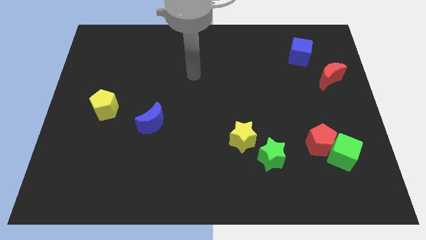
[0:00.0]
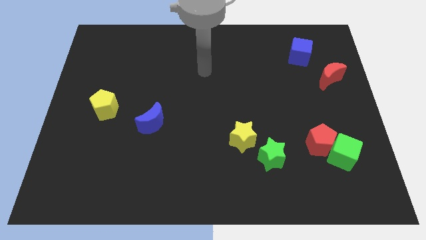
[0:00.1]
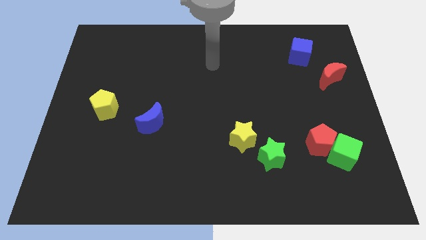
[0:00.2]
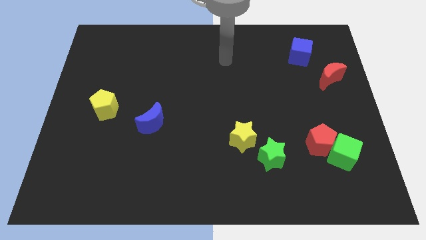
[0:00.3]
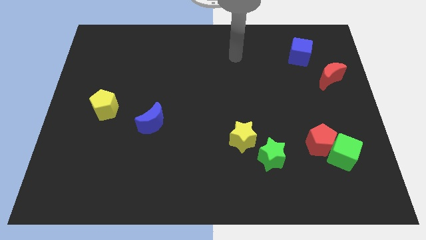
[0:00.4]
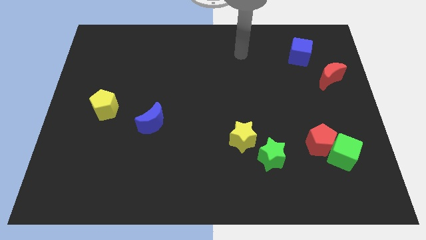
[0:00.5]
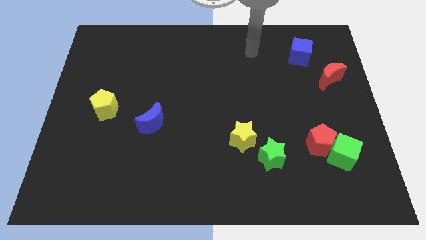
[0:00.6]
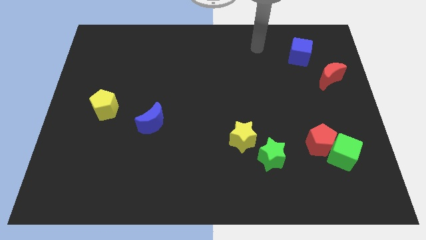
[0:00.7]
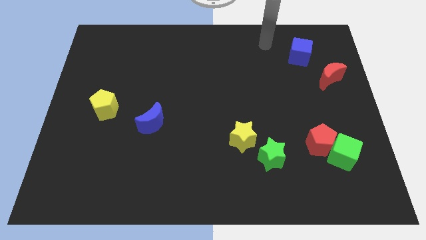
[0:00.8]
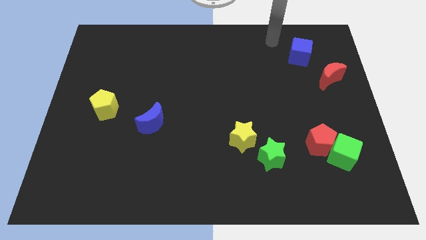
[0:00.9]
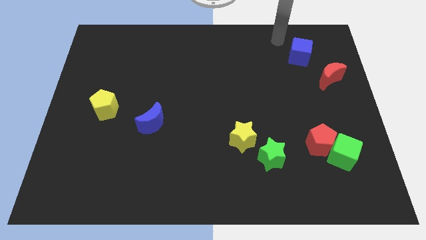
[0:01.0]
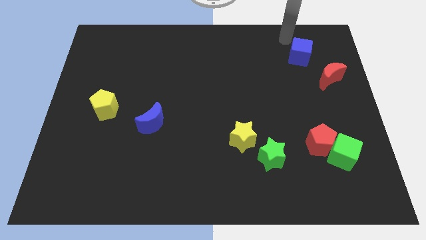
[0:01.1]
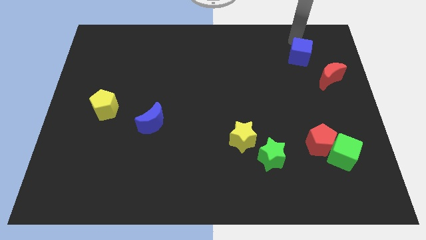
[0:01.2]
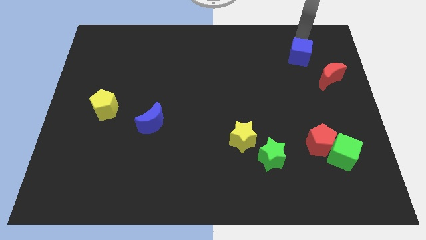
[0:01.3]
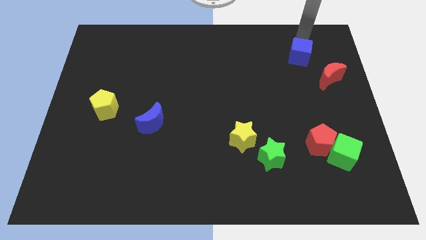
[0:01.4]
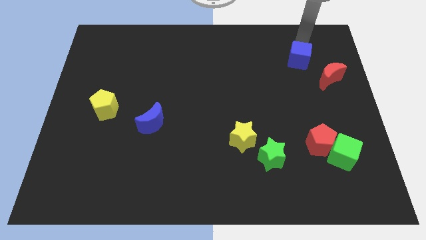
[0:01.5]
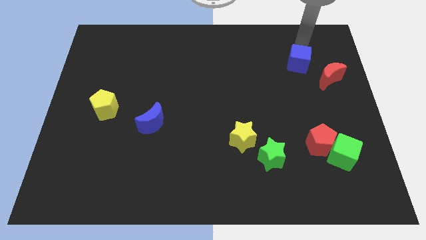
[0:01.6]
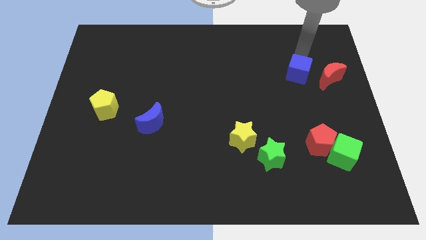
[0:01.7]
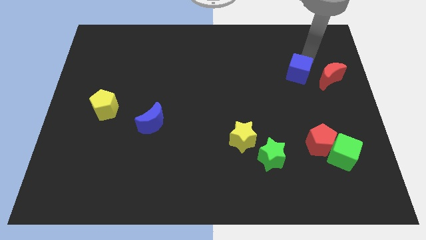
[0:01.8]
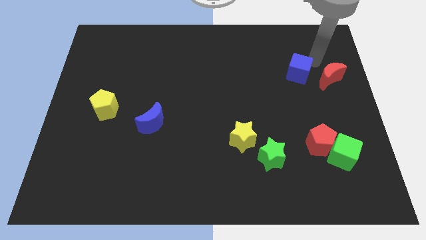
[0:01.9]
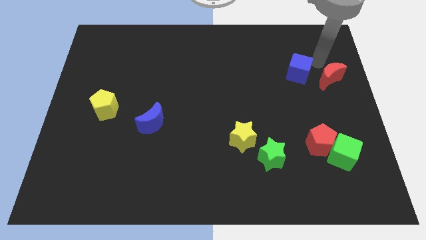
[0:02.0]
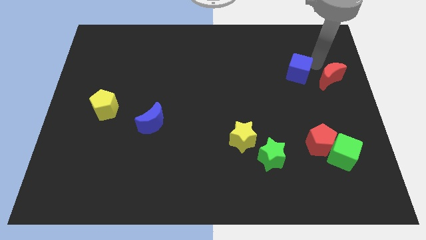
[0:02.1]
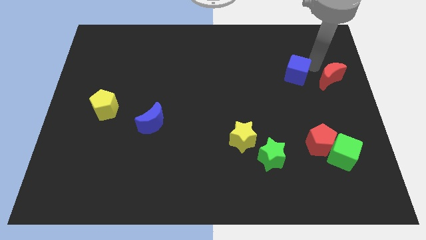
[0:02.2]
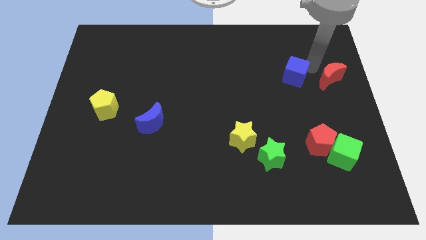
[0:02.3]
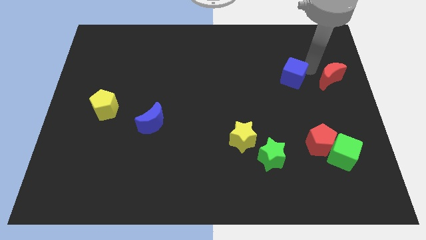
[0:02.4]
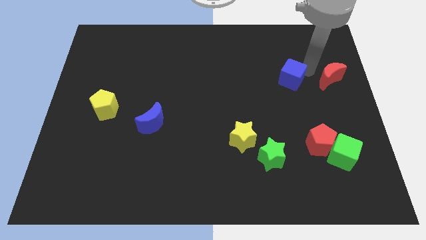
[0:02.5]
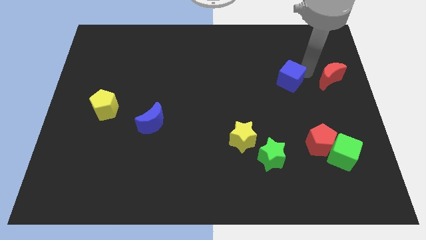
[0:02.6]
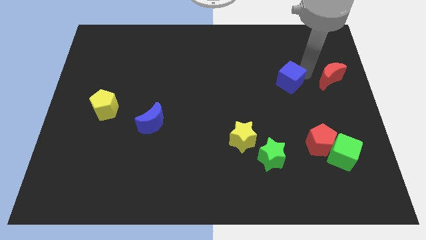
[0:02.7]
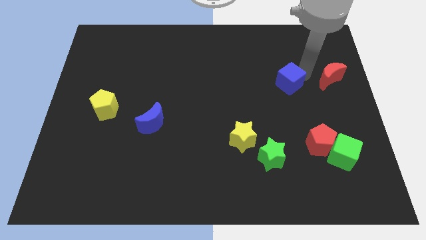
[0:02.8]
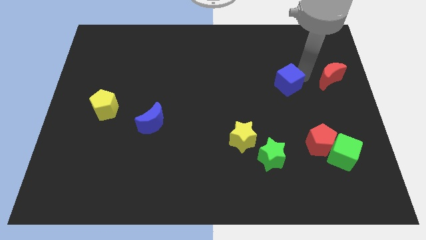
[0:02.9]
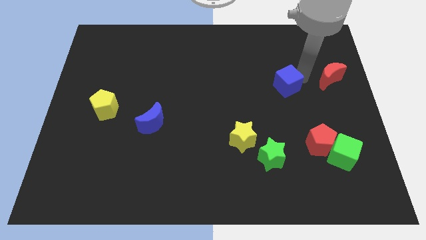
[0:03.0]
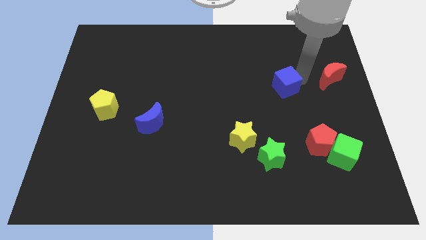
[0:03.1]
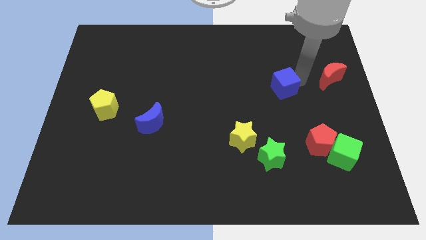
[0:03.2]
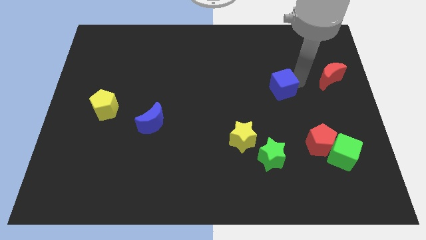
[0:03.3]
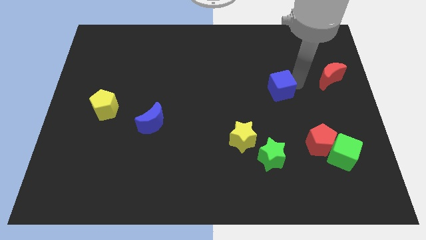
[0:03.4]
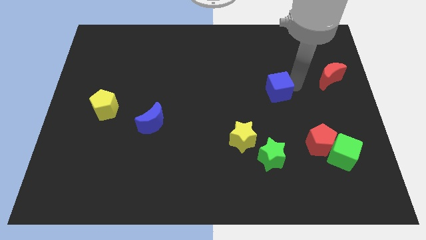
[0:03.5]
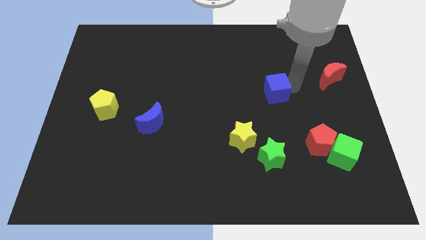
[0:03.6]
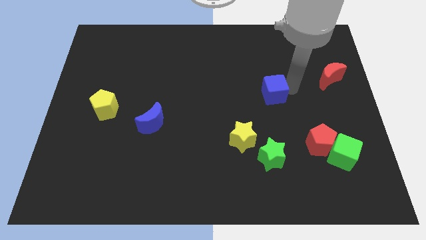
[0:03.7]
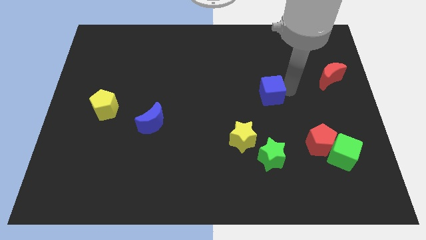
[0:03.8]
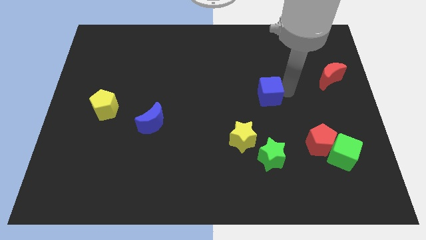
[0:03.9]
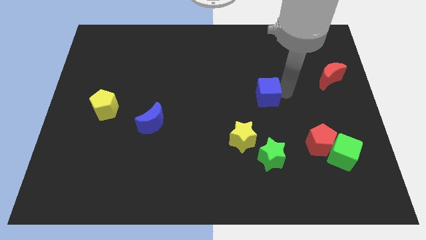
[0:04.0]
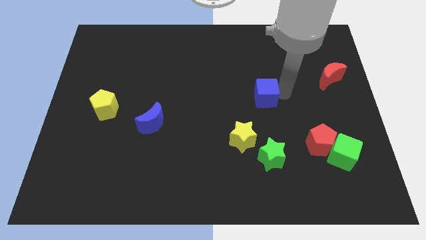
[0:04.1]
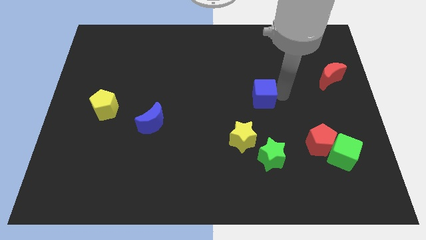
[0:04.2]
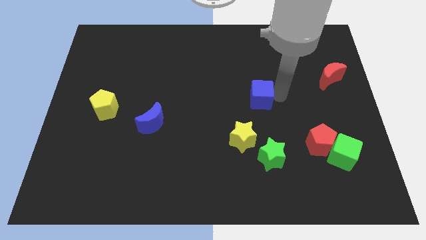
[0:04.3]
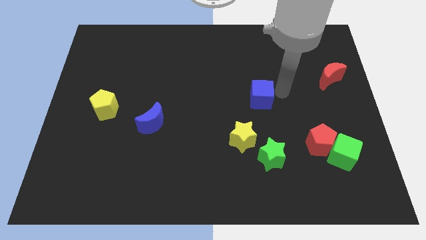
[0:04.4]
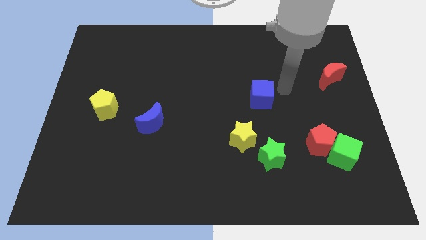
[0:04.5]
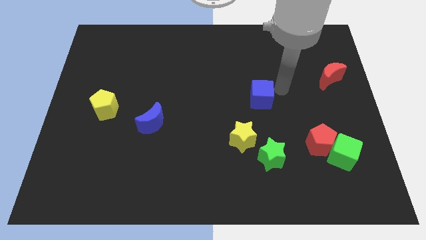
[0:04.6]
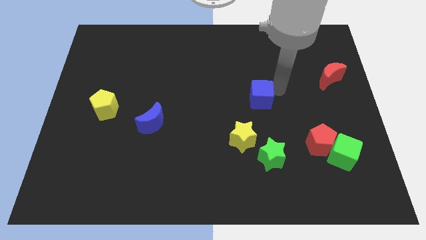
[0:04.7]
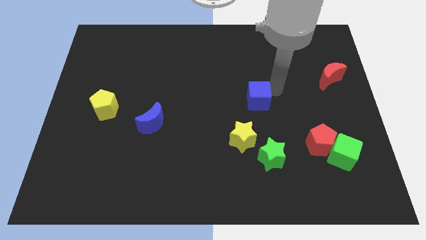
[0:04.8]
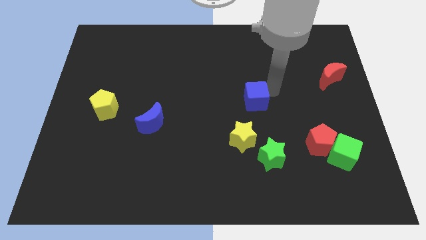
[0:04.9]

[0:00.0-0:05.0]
push the blue cube downwards and to the left

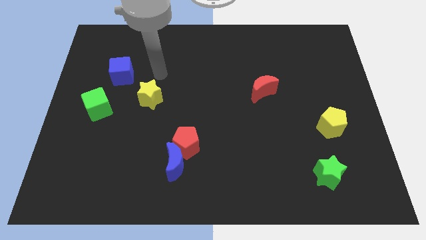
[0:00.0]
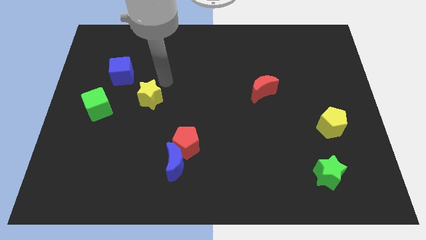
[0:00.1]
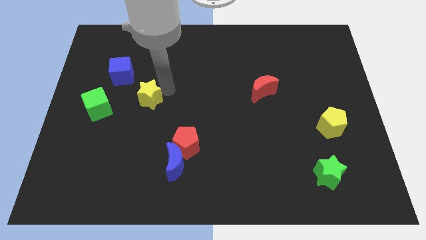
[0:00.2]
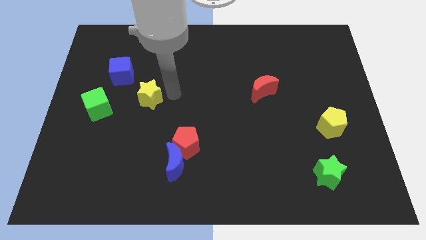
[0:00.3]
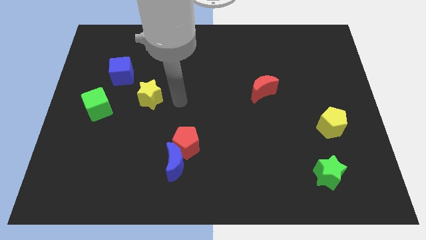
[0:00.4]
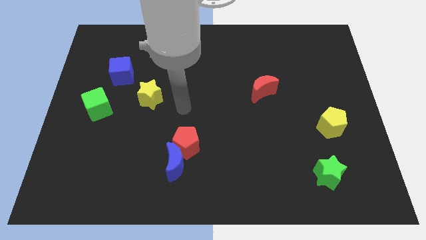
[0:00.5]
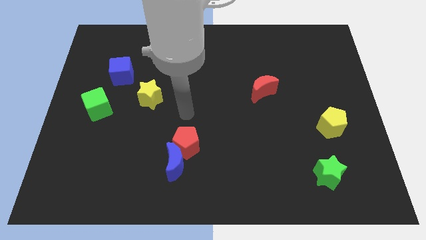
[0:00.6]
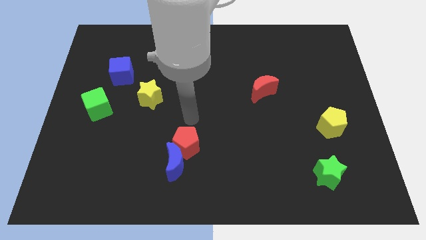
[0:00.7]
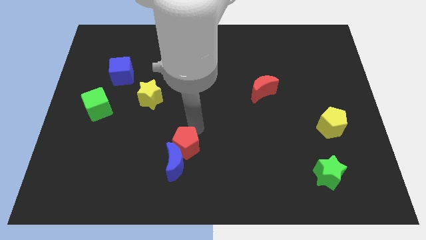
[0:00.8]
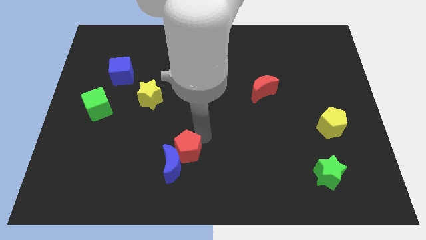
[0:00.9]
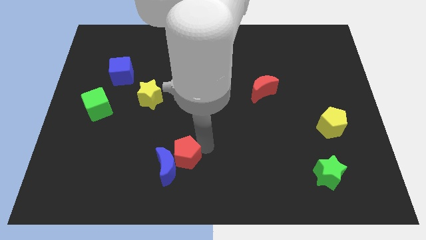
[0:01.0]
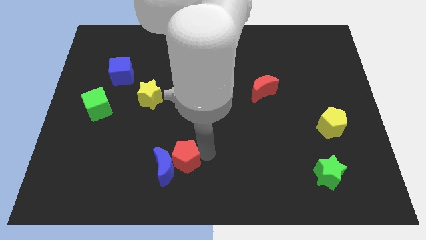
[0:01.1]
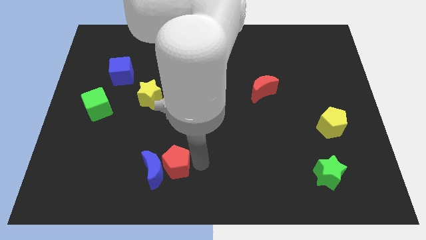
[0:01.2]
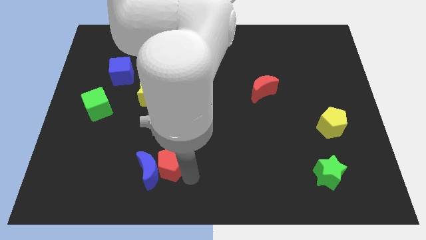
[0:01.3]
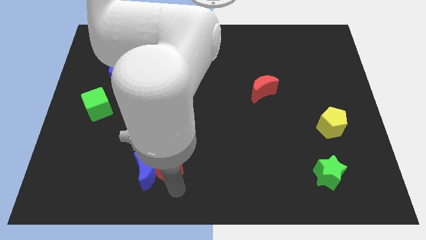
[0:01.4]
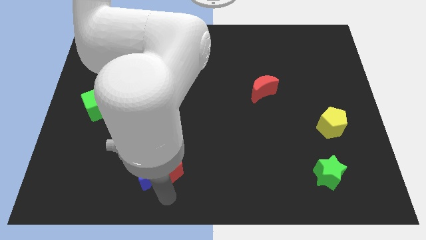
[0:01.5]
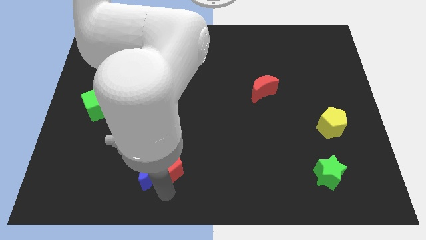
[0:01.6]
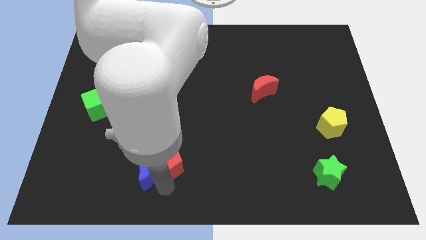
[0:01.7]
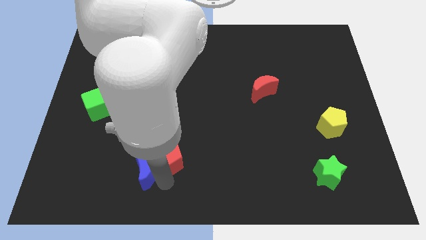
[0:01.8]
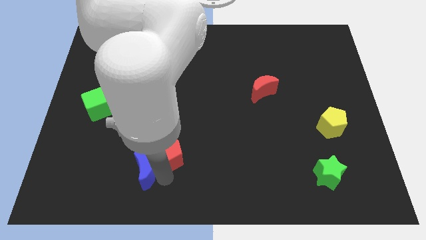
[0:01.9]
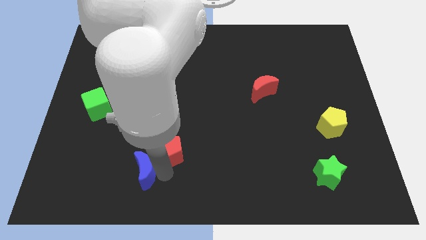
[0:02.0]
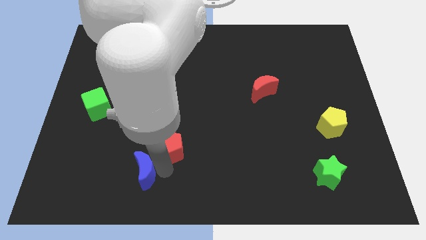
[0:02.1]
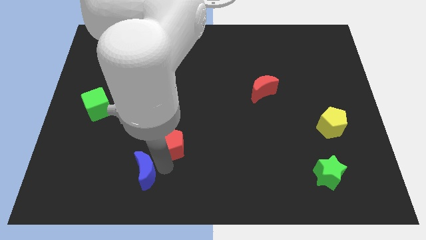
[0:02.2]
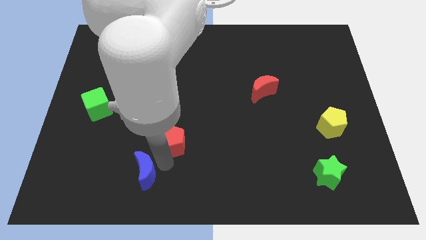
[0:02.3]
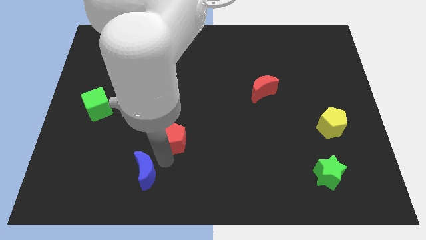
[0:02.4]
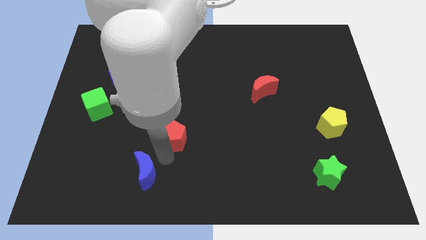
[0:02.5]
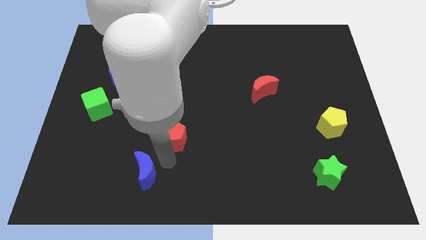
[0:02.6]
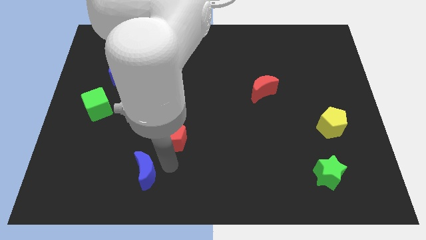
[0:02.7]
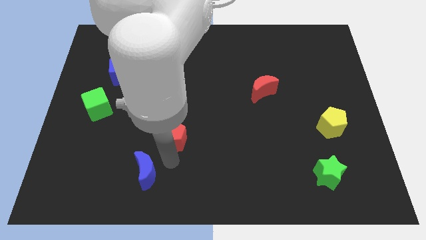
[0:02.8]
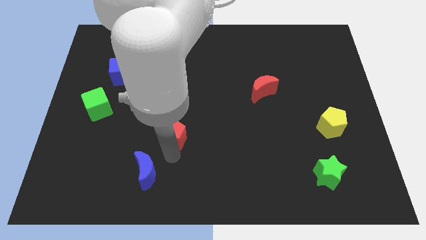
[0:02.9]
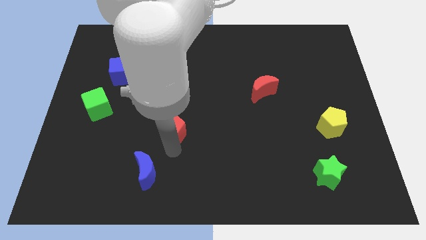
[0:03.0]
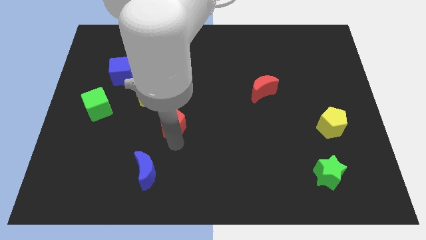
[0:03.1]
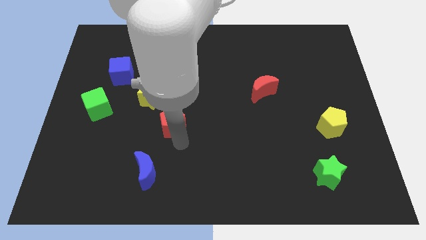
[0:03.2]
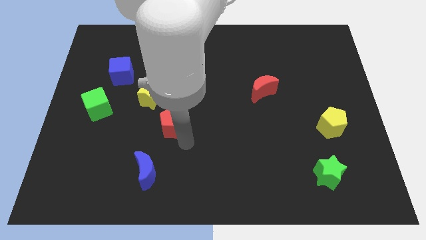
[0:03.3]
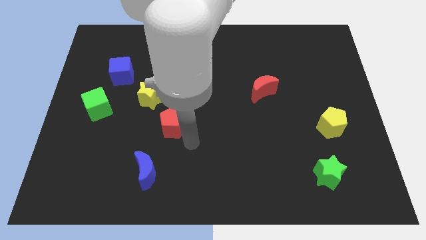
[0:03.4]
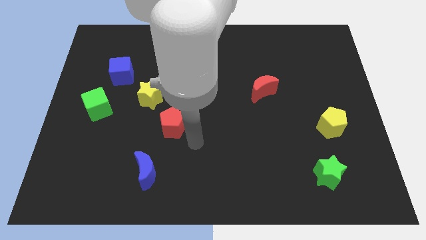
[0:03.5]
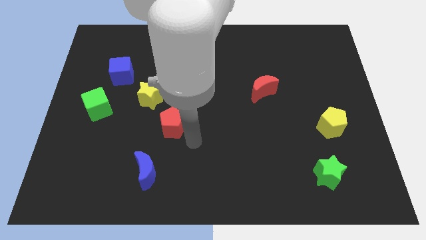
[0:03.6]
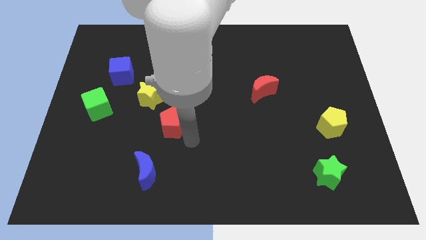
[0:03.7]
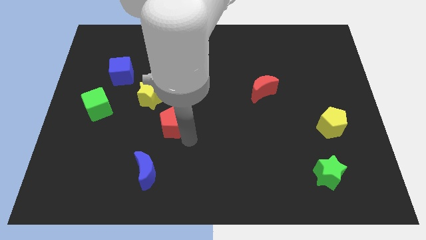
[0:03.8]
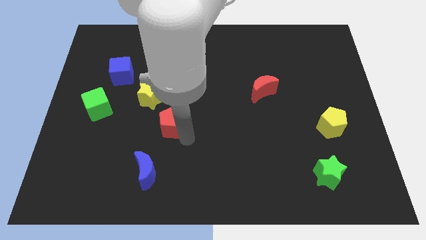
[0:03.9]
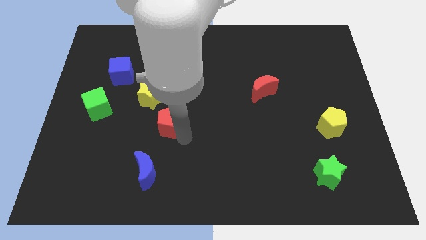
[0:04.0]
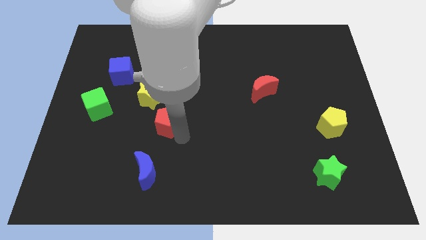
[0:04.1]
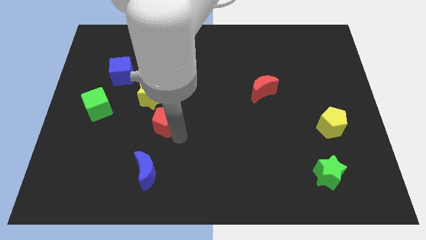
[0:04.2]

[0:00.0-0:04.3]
slide the red pentagon a bit up and to the left
